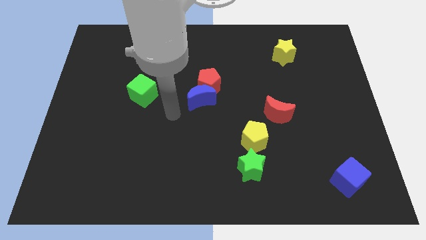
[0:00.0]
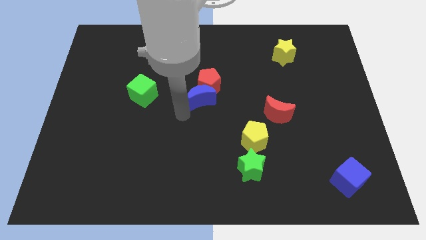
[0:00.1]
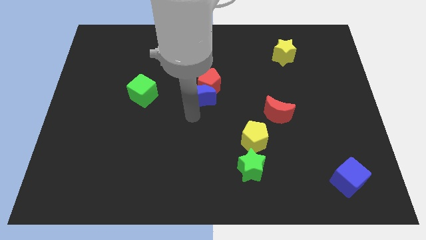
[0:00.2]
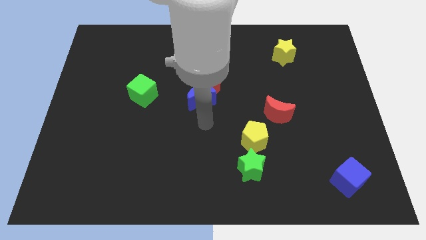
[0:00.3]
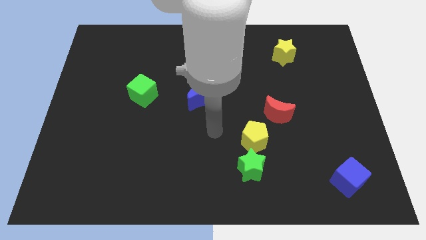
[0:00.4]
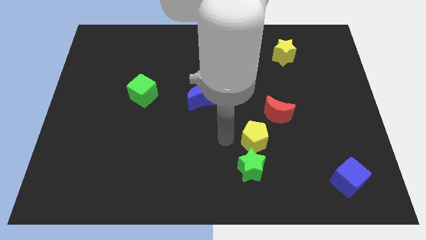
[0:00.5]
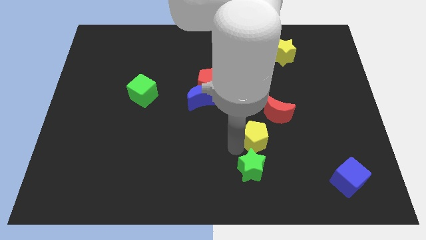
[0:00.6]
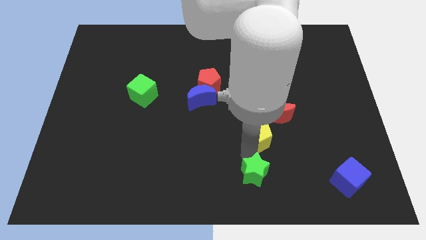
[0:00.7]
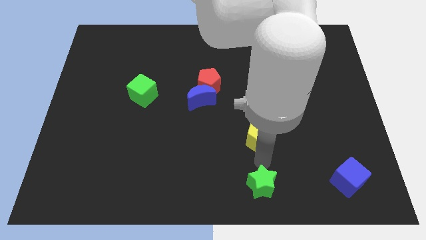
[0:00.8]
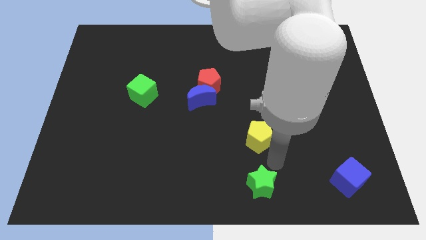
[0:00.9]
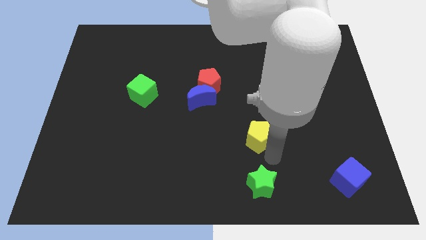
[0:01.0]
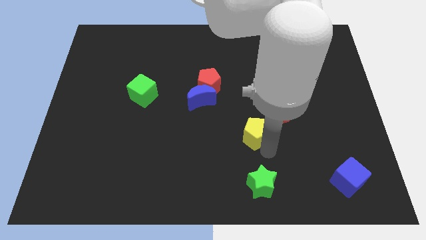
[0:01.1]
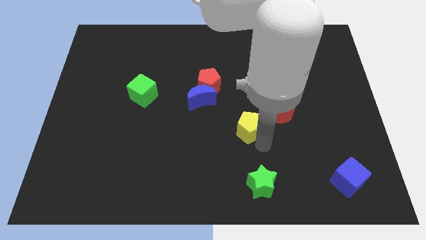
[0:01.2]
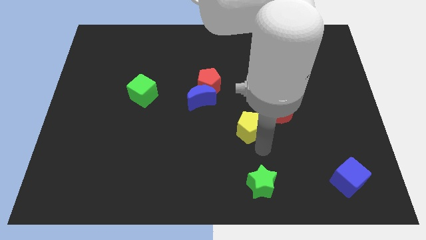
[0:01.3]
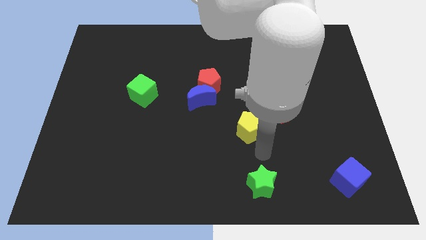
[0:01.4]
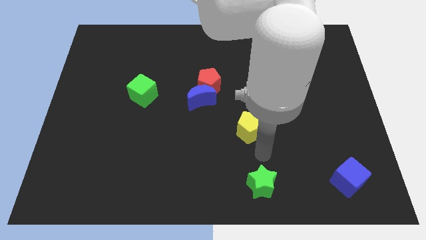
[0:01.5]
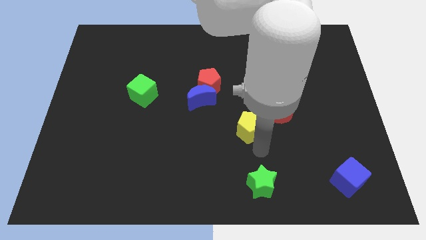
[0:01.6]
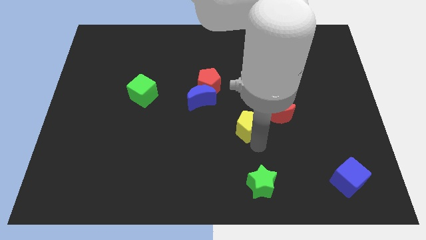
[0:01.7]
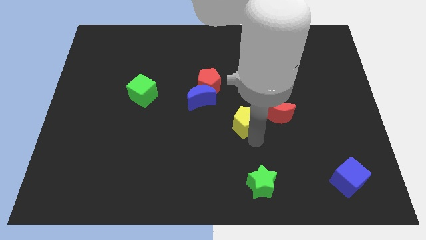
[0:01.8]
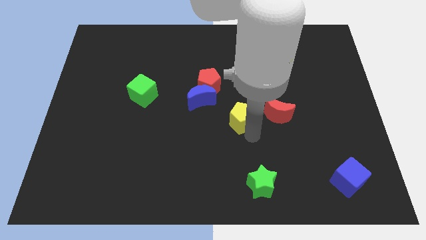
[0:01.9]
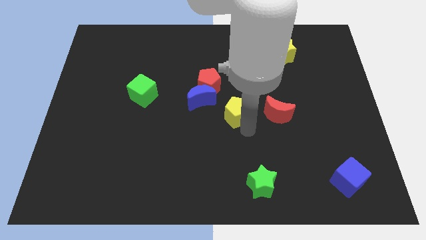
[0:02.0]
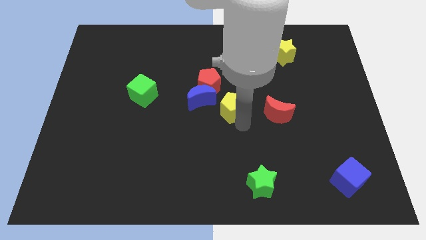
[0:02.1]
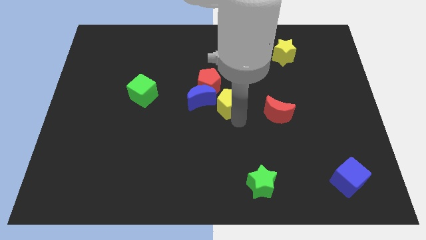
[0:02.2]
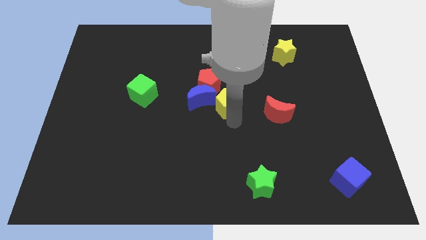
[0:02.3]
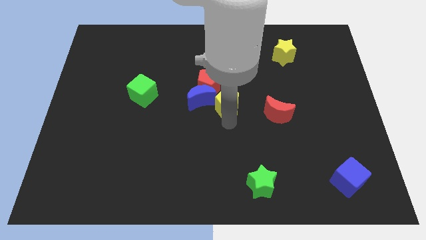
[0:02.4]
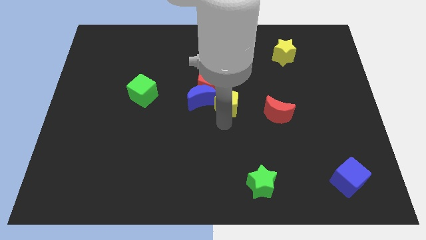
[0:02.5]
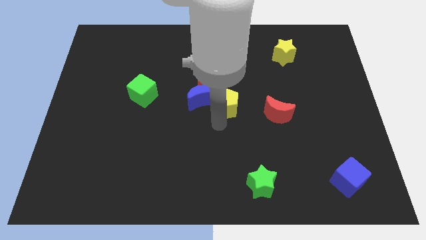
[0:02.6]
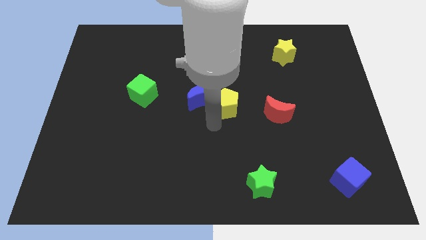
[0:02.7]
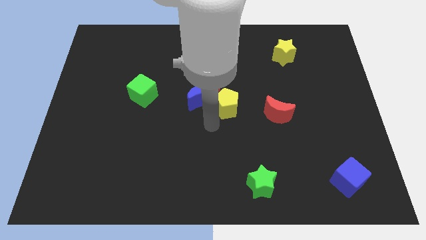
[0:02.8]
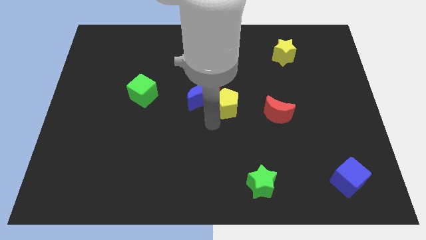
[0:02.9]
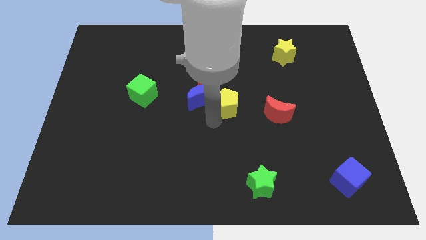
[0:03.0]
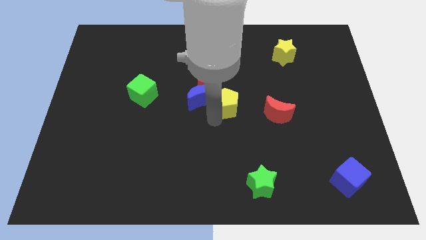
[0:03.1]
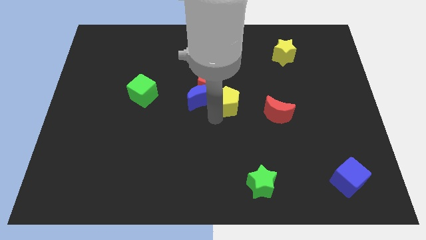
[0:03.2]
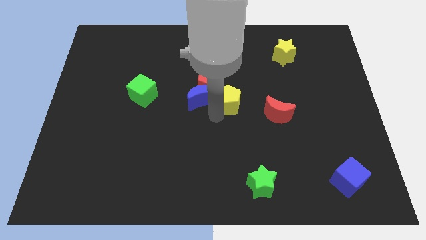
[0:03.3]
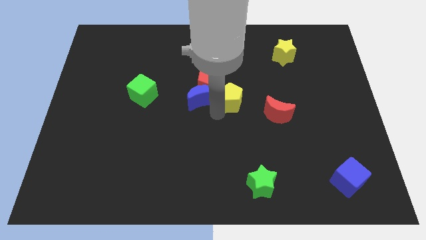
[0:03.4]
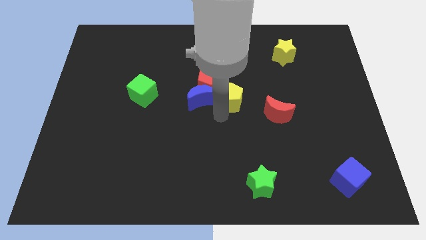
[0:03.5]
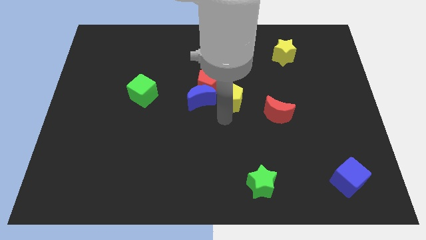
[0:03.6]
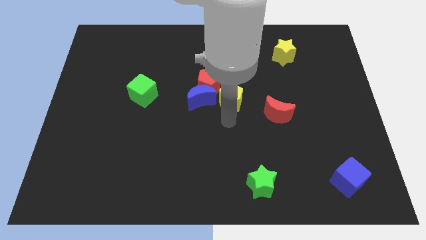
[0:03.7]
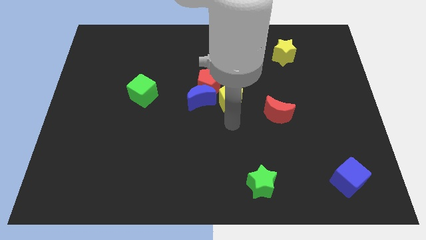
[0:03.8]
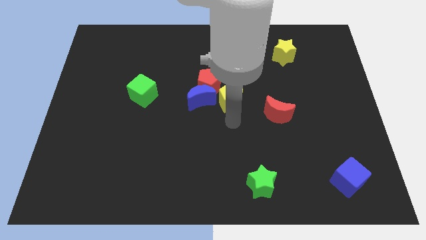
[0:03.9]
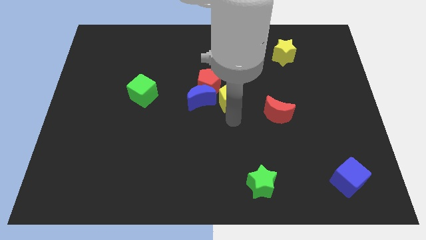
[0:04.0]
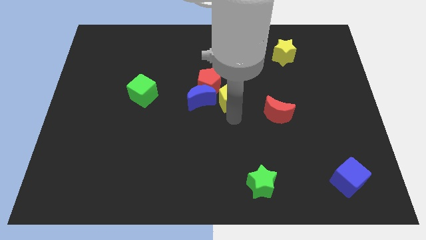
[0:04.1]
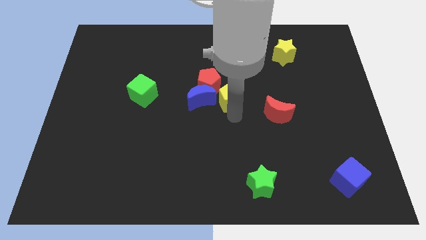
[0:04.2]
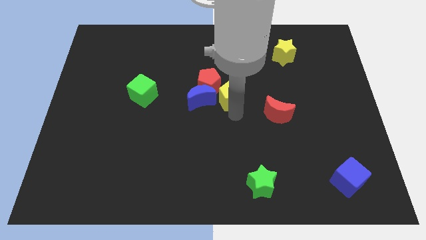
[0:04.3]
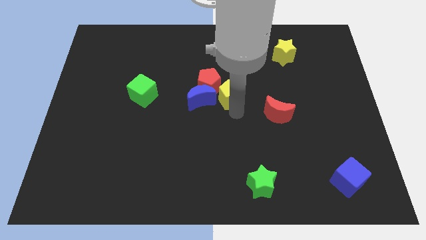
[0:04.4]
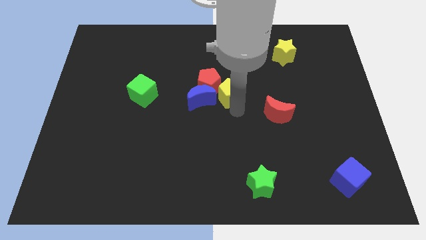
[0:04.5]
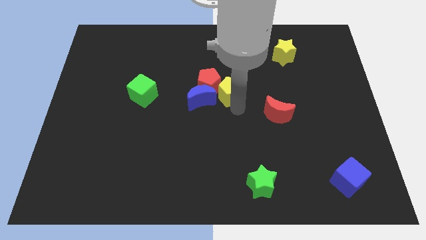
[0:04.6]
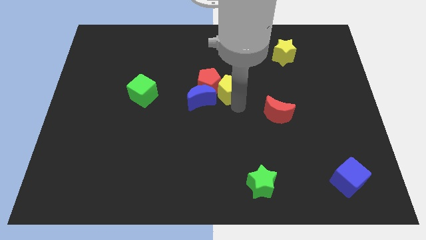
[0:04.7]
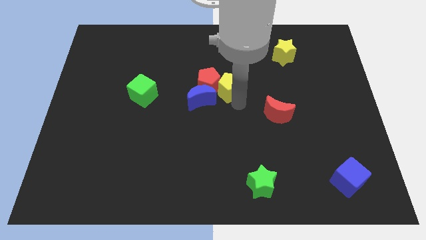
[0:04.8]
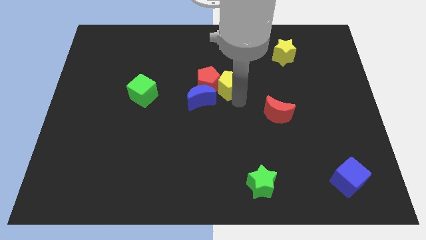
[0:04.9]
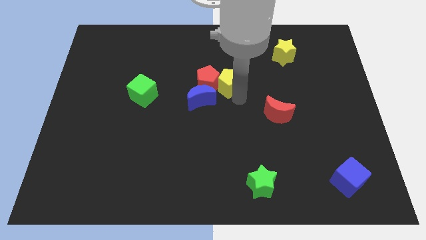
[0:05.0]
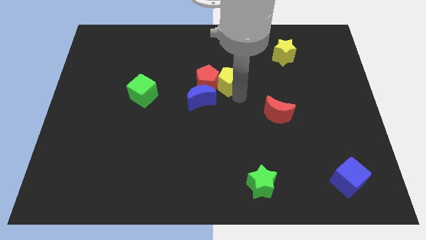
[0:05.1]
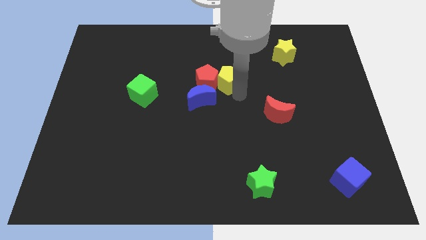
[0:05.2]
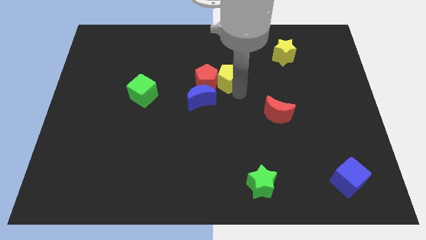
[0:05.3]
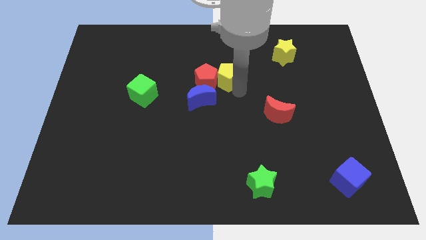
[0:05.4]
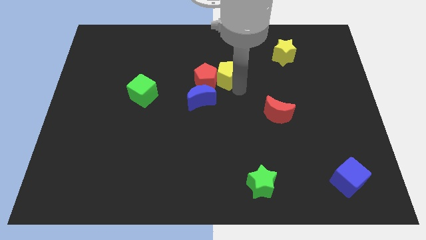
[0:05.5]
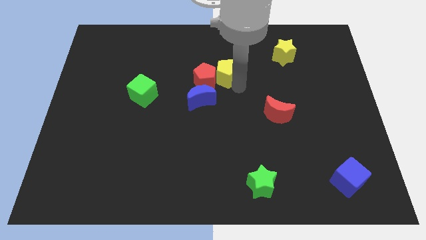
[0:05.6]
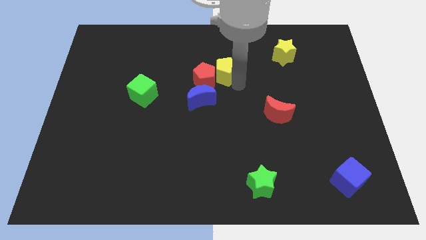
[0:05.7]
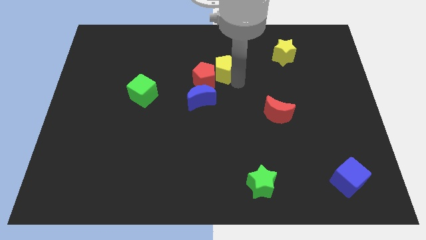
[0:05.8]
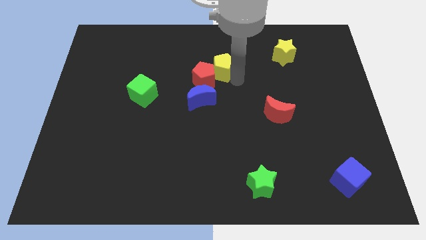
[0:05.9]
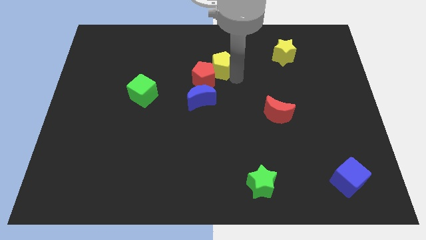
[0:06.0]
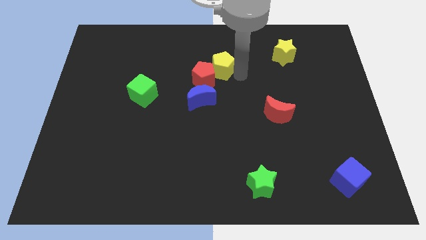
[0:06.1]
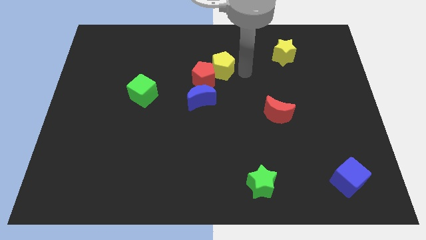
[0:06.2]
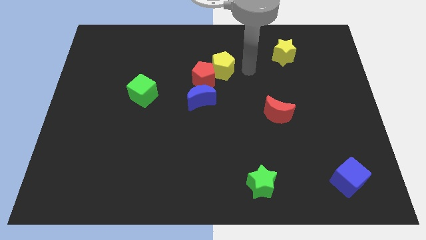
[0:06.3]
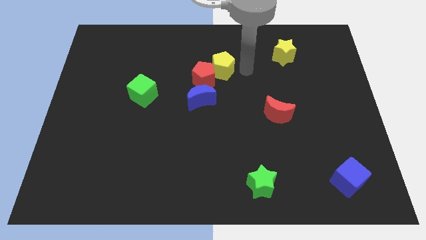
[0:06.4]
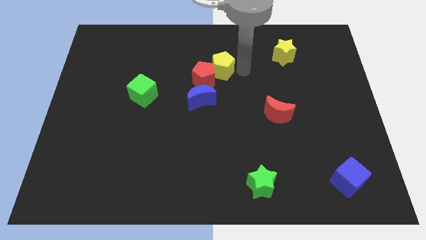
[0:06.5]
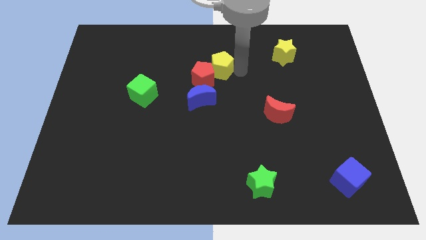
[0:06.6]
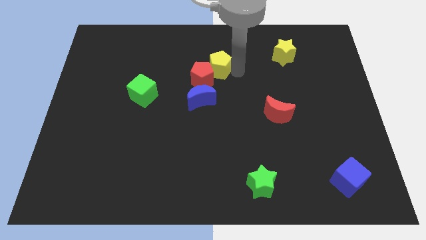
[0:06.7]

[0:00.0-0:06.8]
push the yellow pentagon to the top of the blue moon
